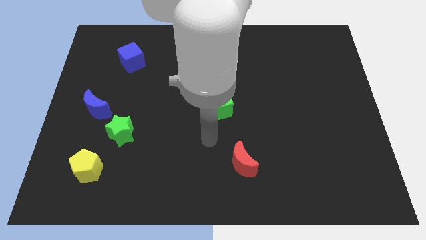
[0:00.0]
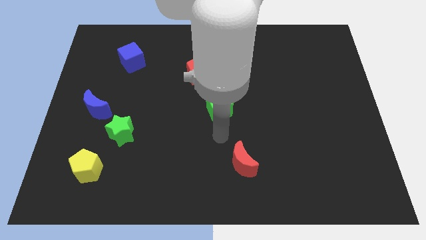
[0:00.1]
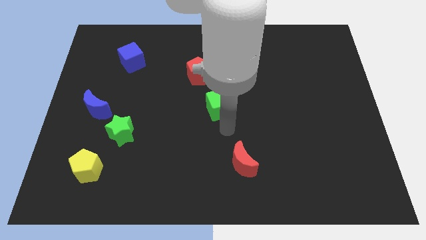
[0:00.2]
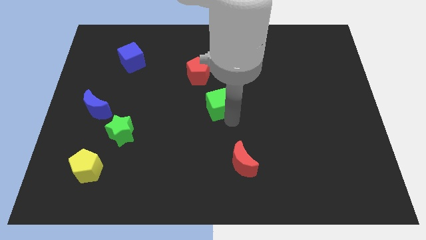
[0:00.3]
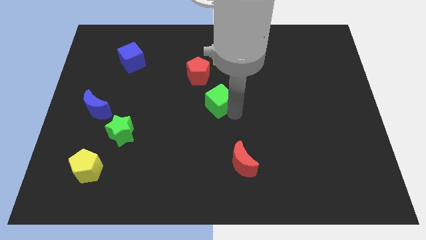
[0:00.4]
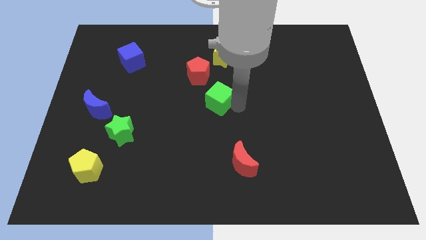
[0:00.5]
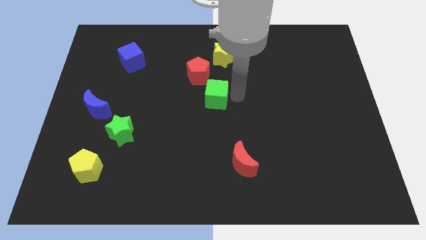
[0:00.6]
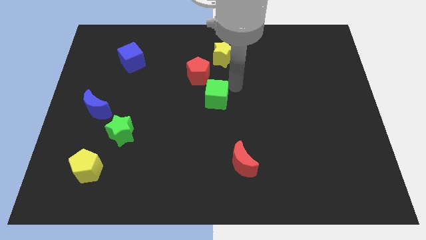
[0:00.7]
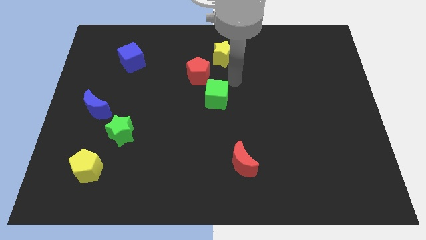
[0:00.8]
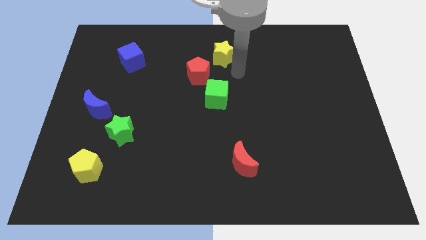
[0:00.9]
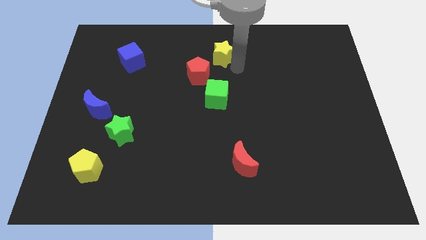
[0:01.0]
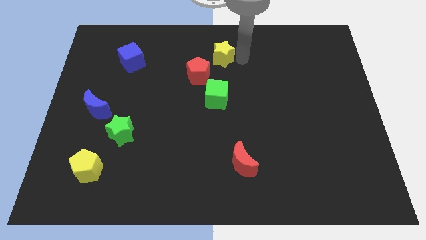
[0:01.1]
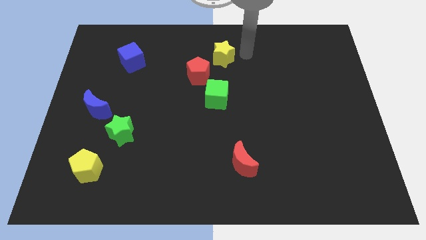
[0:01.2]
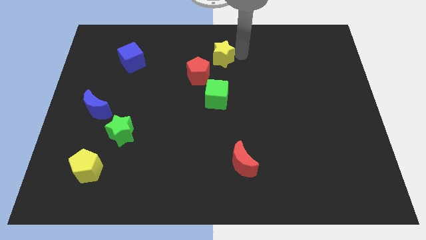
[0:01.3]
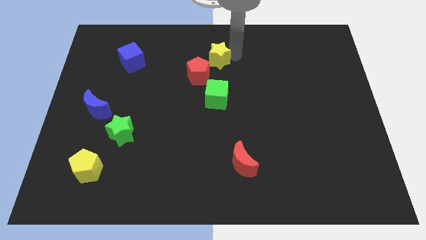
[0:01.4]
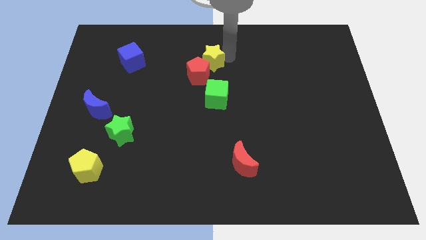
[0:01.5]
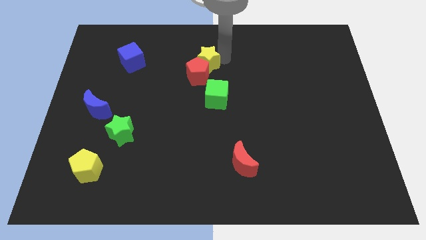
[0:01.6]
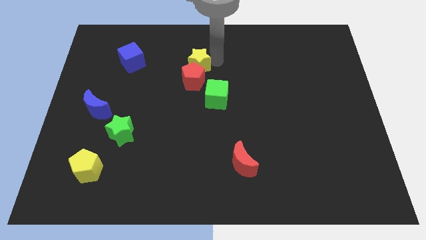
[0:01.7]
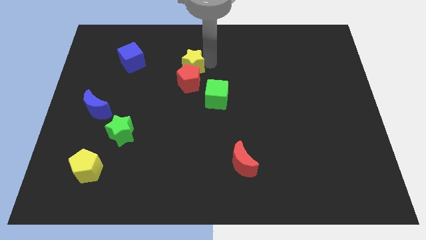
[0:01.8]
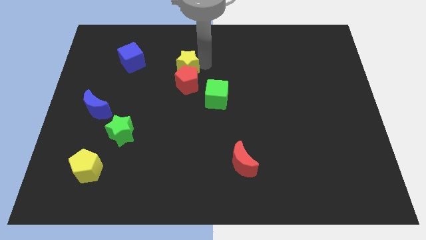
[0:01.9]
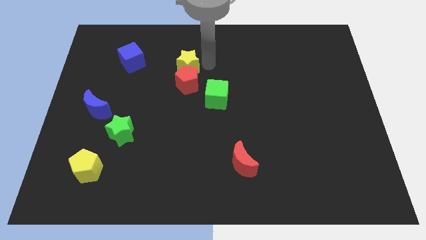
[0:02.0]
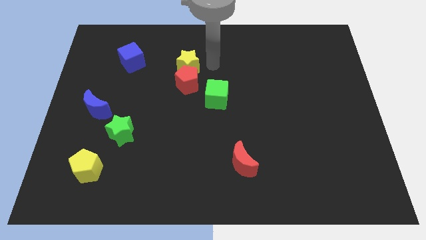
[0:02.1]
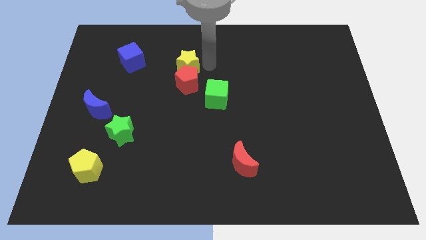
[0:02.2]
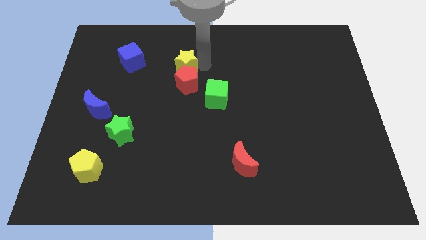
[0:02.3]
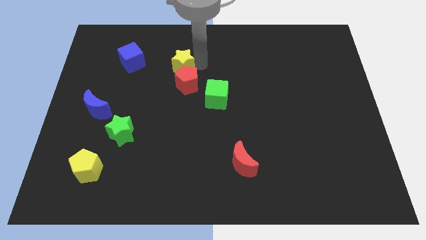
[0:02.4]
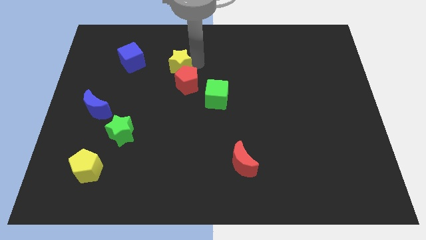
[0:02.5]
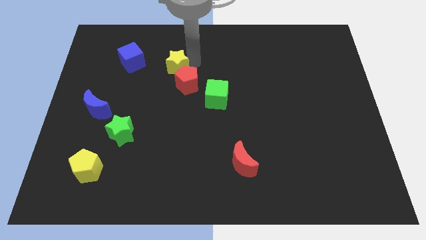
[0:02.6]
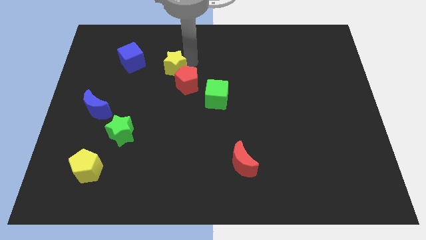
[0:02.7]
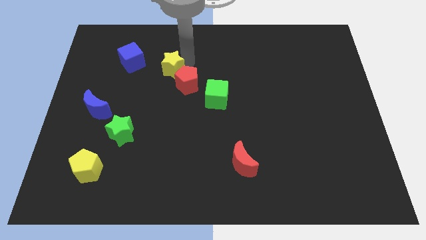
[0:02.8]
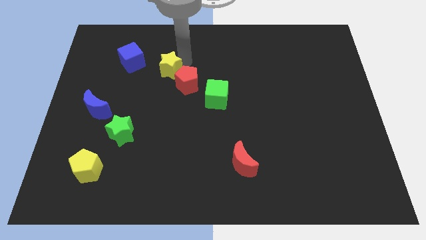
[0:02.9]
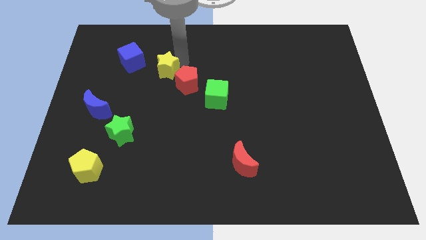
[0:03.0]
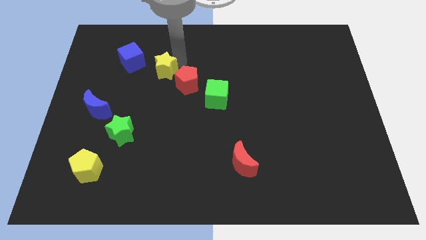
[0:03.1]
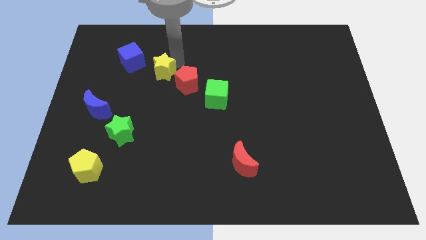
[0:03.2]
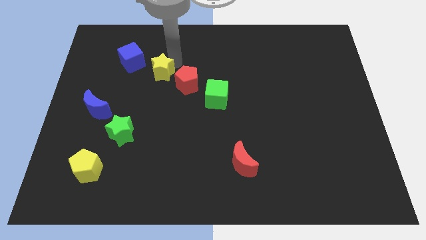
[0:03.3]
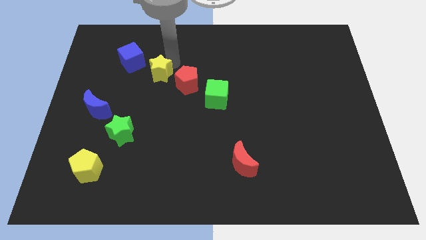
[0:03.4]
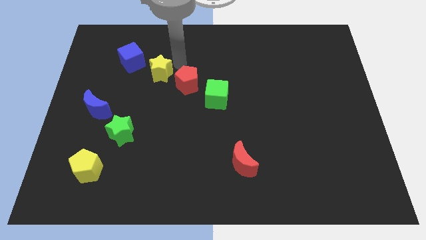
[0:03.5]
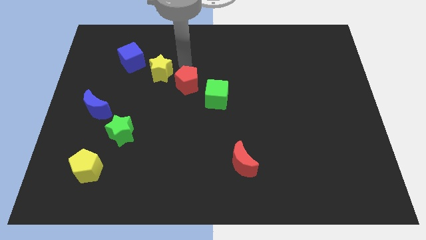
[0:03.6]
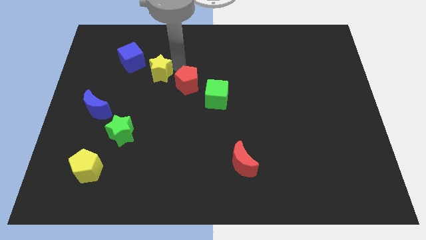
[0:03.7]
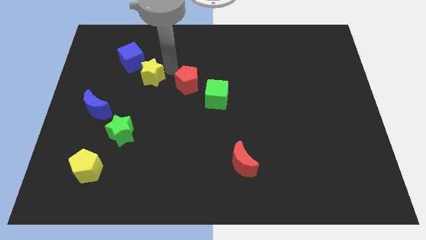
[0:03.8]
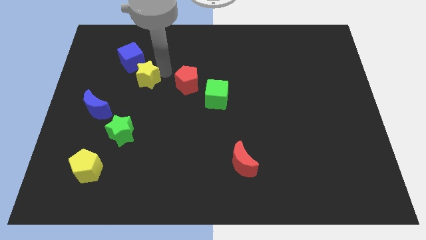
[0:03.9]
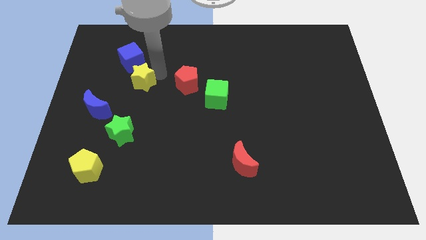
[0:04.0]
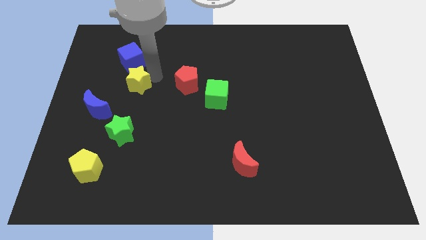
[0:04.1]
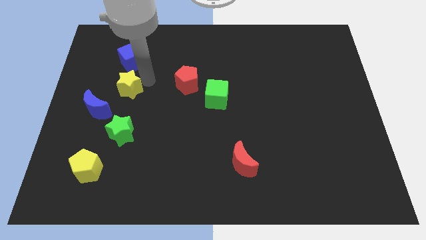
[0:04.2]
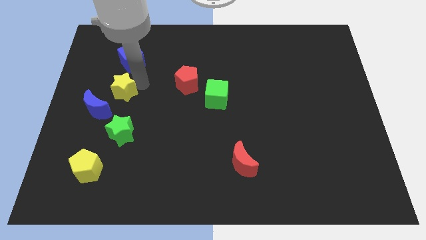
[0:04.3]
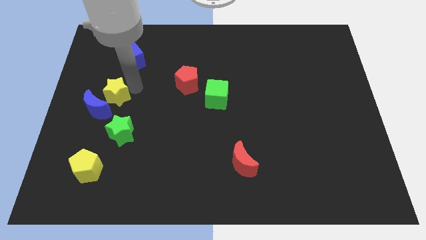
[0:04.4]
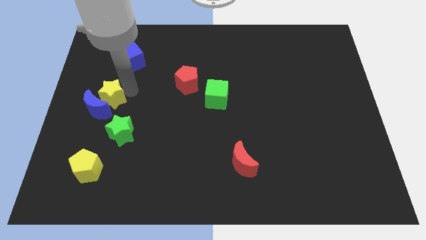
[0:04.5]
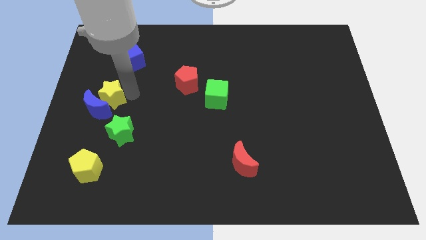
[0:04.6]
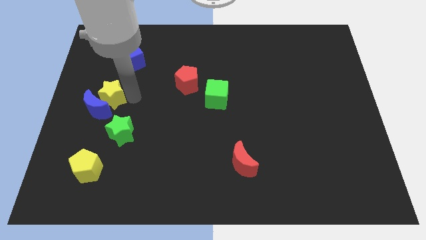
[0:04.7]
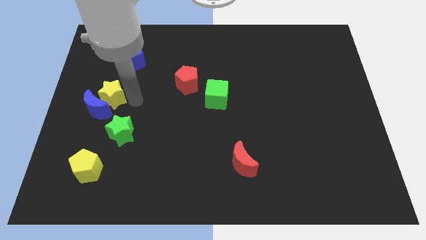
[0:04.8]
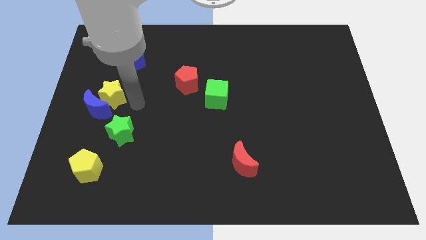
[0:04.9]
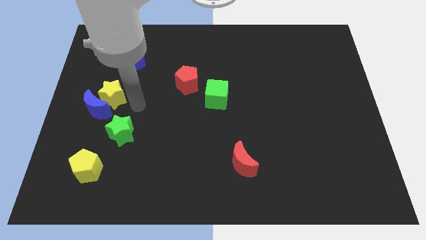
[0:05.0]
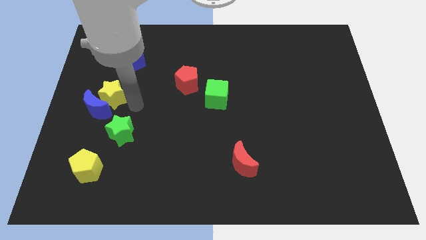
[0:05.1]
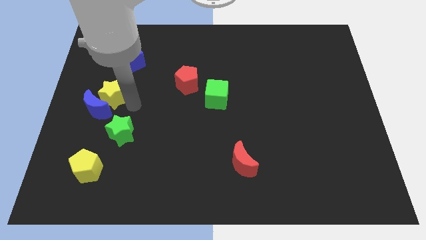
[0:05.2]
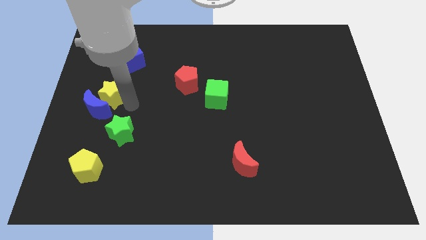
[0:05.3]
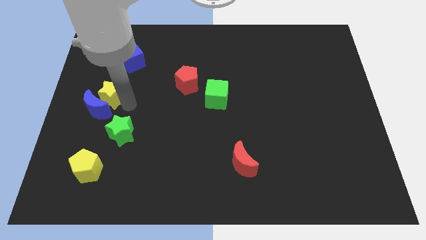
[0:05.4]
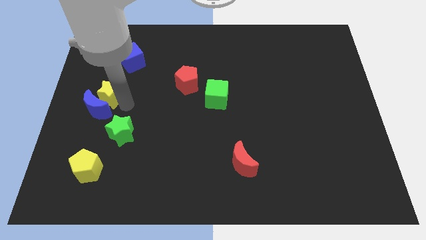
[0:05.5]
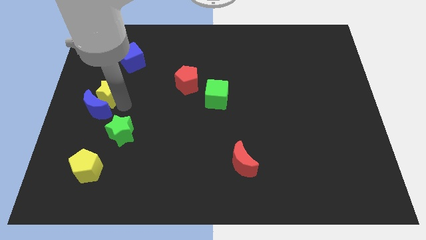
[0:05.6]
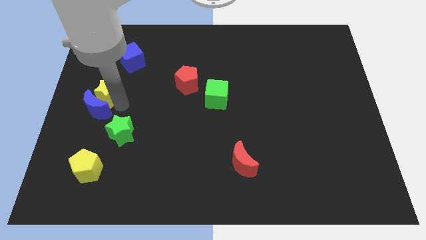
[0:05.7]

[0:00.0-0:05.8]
move the yellow star to the left side
